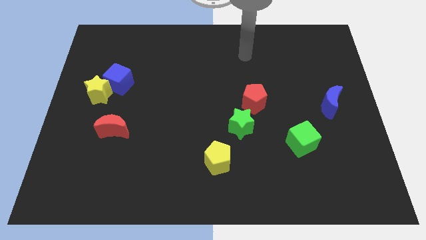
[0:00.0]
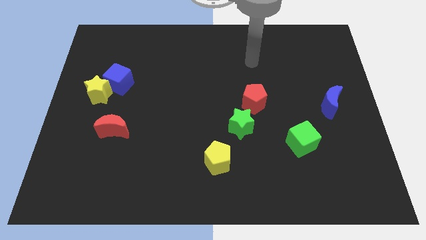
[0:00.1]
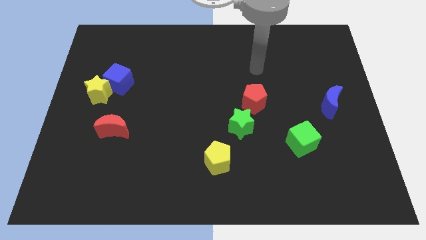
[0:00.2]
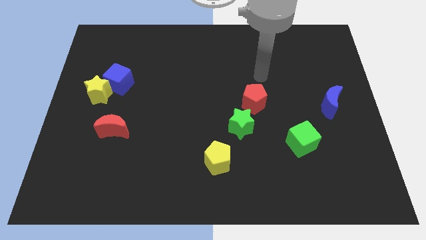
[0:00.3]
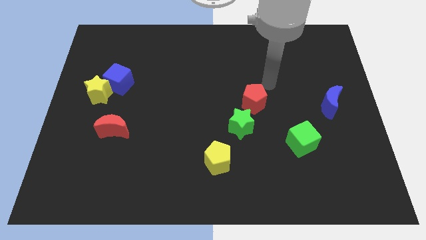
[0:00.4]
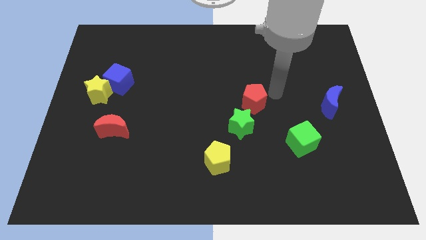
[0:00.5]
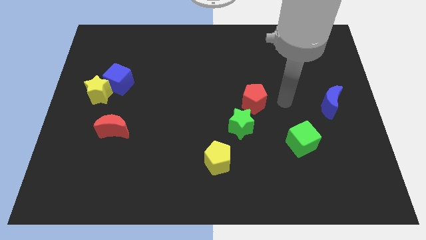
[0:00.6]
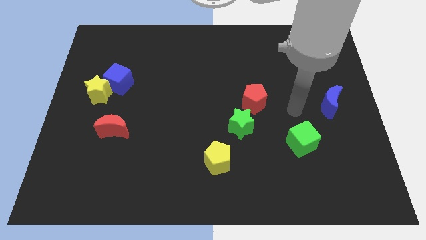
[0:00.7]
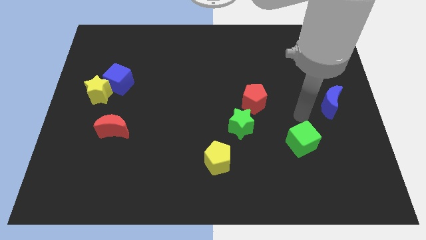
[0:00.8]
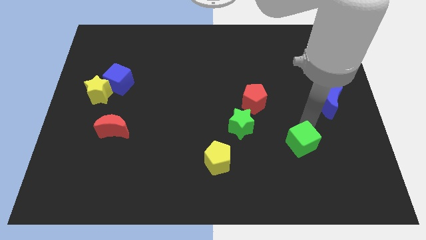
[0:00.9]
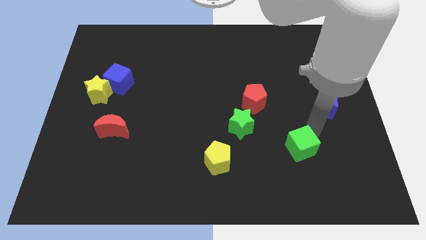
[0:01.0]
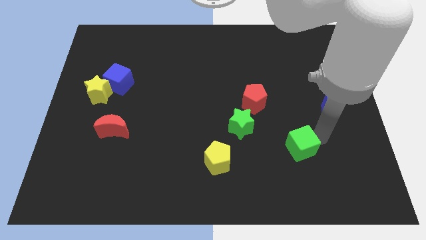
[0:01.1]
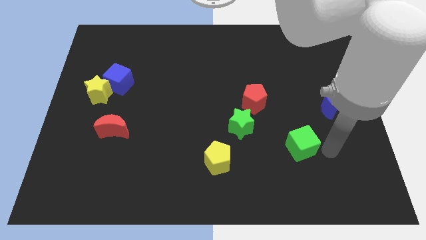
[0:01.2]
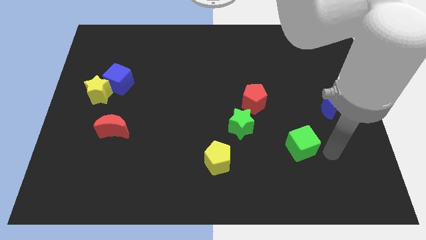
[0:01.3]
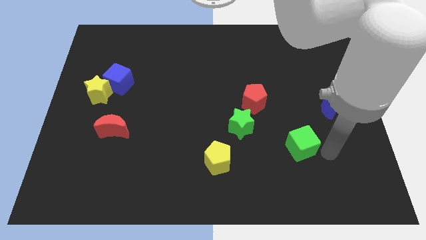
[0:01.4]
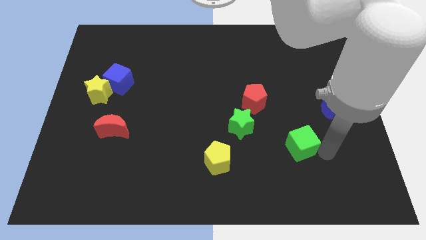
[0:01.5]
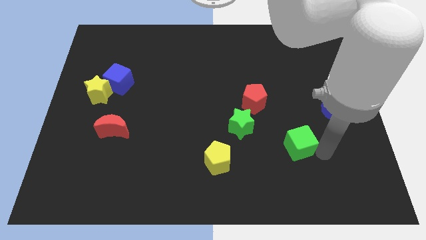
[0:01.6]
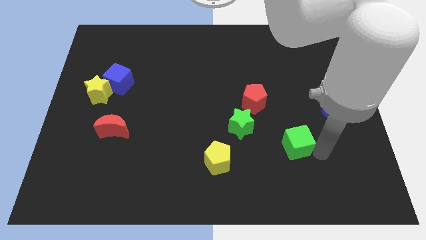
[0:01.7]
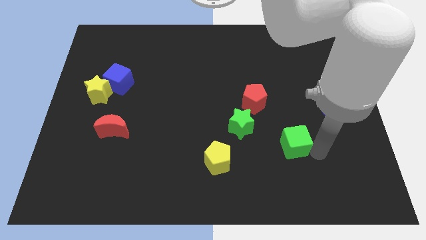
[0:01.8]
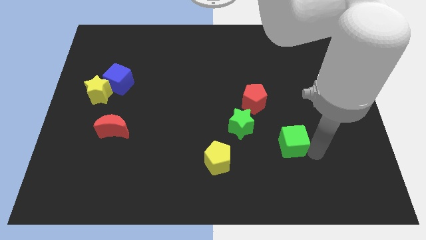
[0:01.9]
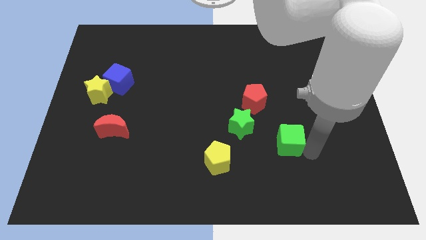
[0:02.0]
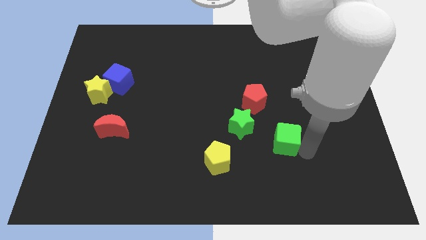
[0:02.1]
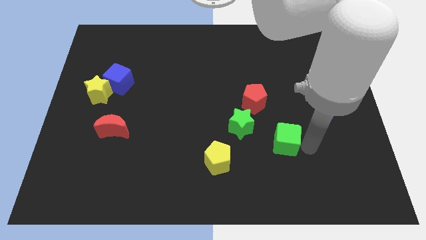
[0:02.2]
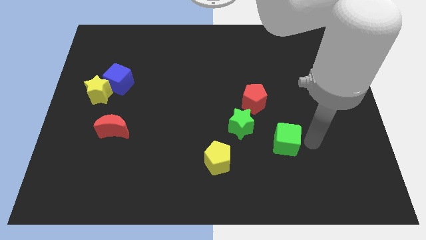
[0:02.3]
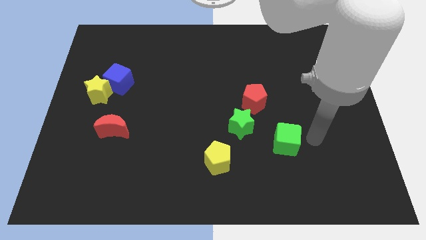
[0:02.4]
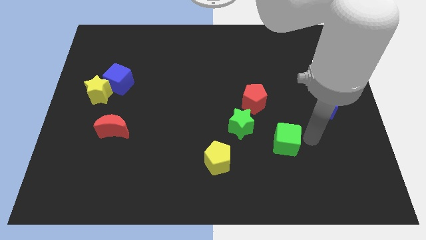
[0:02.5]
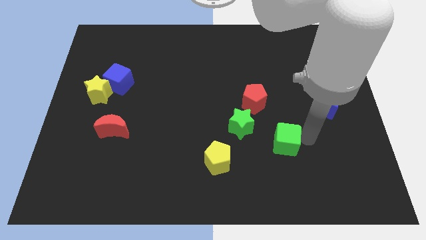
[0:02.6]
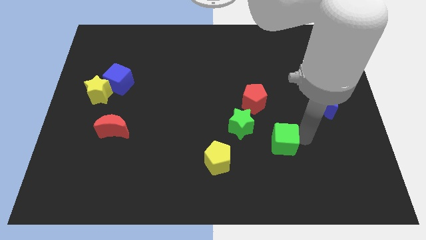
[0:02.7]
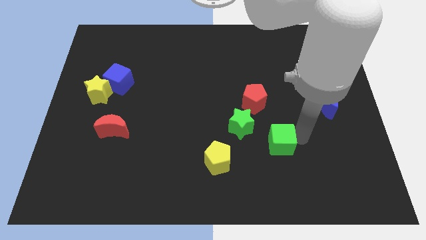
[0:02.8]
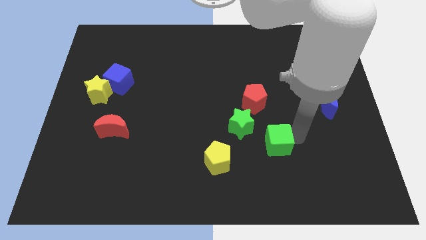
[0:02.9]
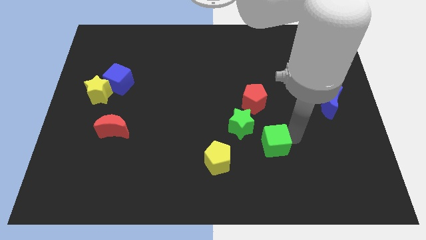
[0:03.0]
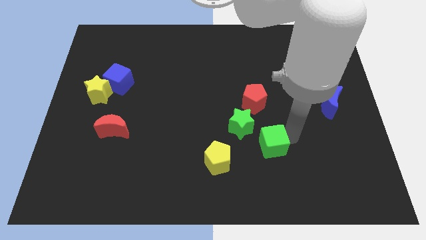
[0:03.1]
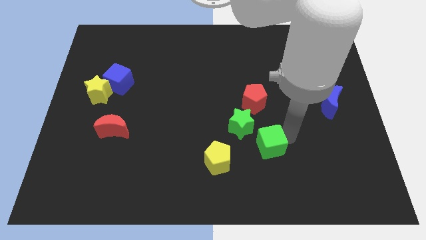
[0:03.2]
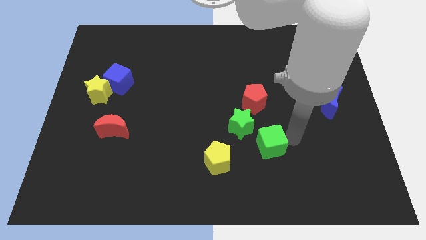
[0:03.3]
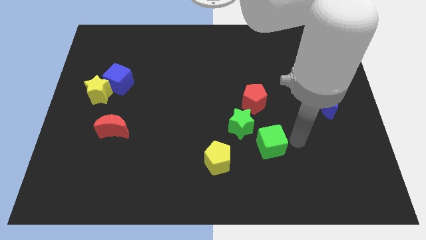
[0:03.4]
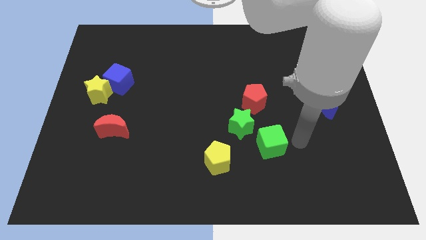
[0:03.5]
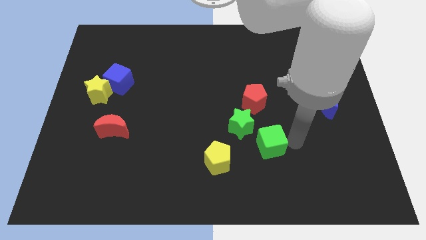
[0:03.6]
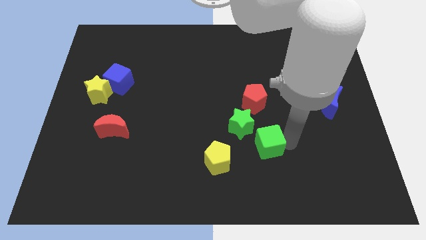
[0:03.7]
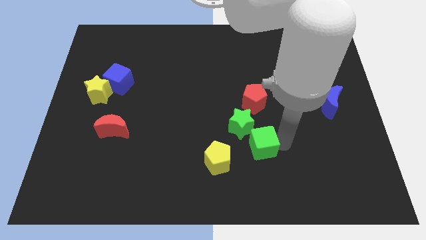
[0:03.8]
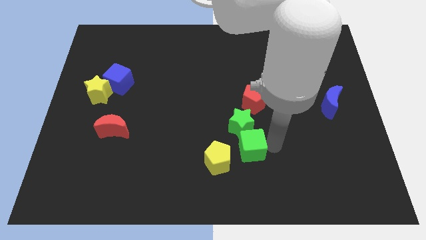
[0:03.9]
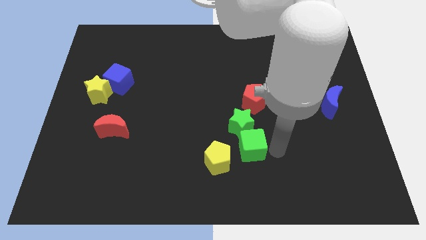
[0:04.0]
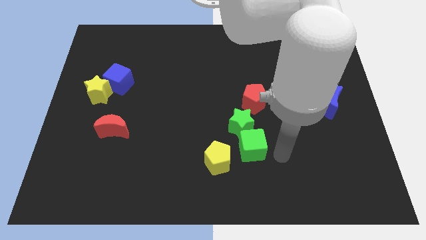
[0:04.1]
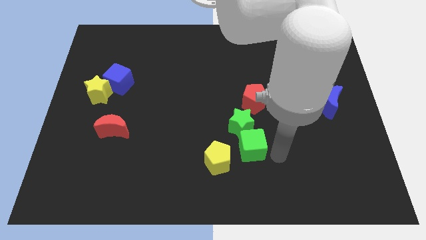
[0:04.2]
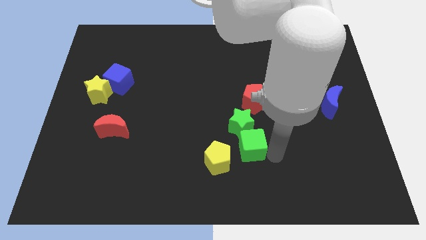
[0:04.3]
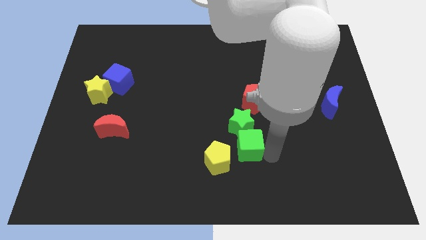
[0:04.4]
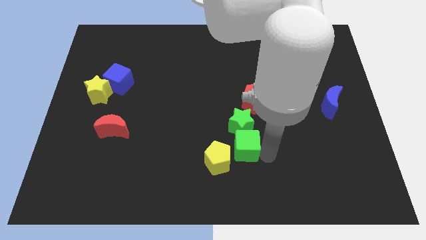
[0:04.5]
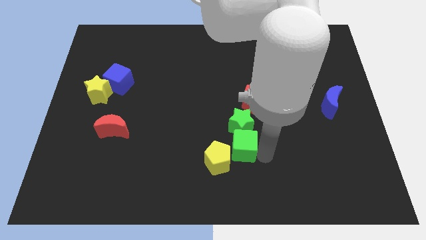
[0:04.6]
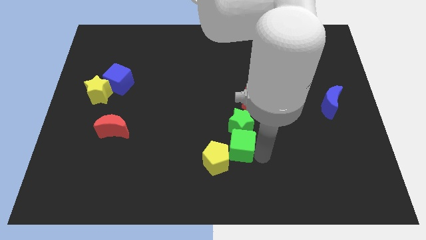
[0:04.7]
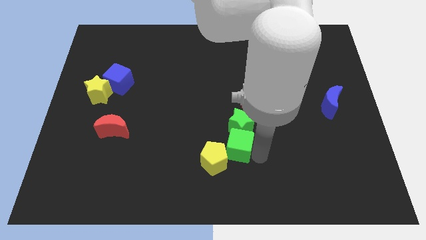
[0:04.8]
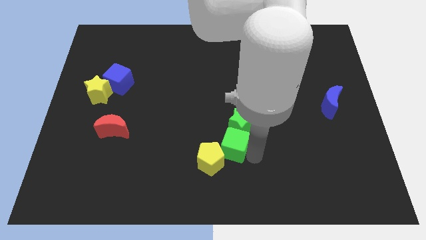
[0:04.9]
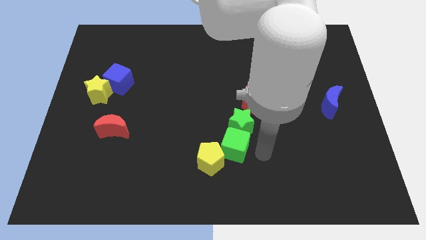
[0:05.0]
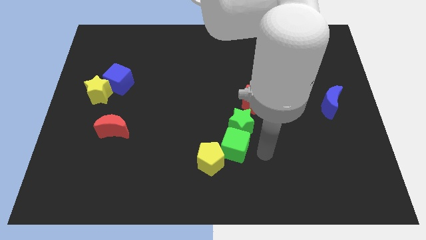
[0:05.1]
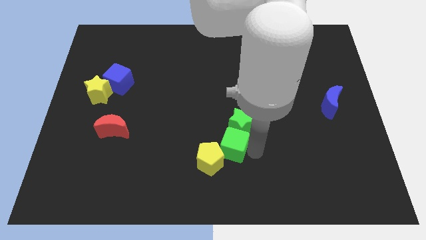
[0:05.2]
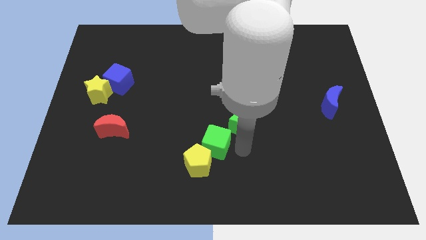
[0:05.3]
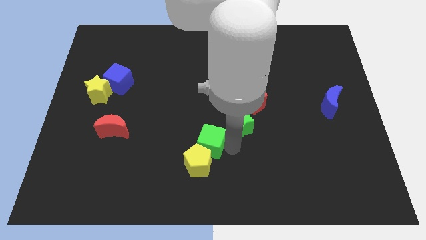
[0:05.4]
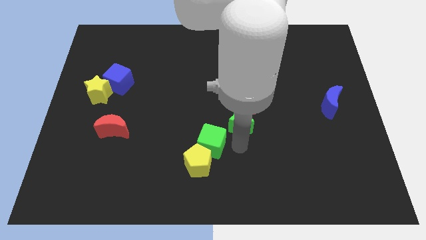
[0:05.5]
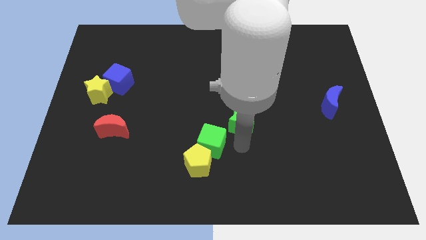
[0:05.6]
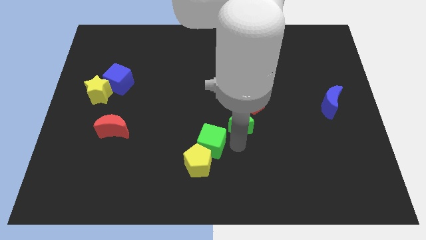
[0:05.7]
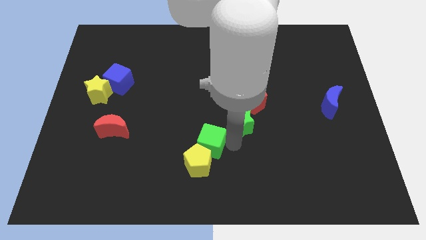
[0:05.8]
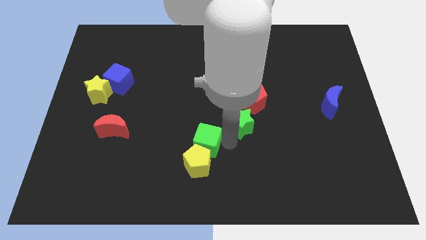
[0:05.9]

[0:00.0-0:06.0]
slide the green cube diagonally up and to the left of the yellow pentagon

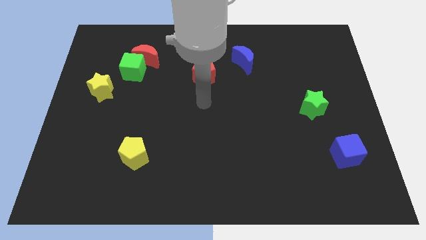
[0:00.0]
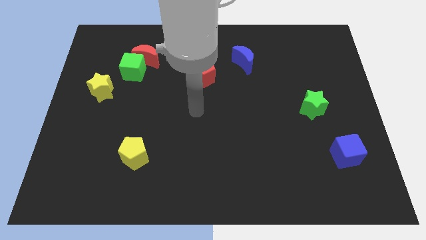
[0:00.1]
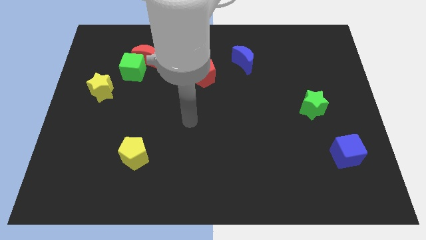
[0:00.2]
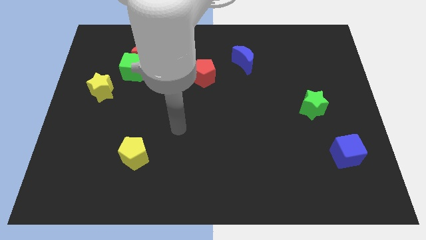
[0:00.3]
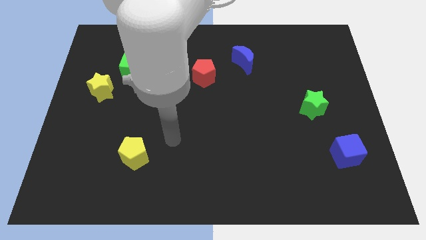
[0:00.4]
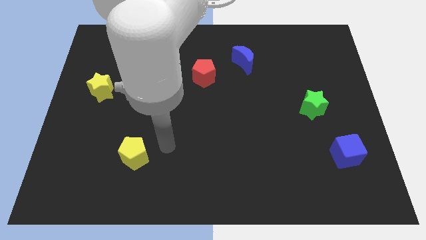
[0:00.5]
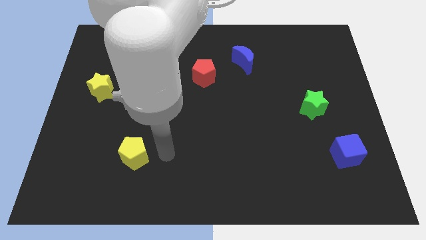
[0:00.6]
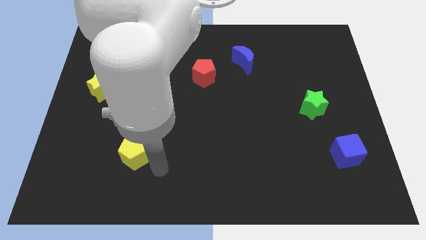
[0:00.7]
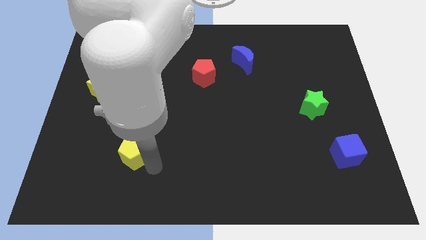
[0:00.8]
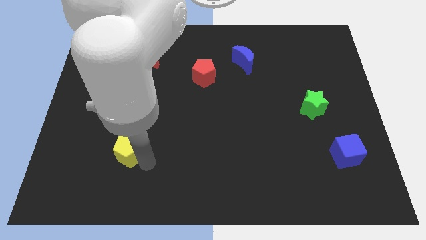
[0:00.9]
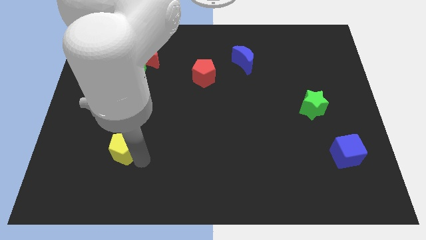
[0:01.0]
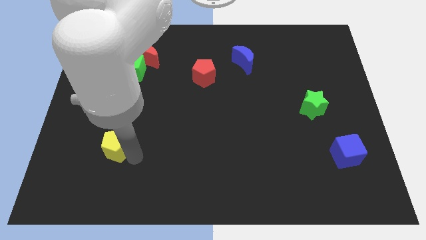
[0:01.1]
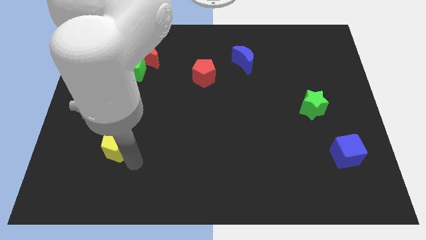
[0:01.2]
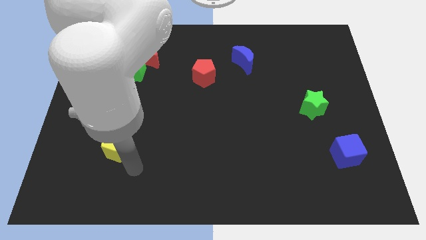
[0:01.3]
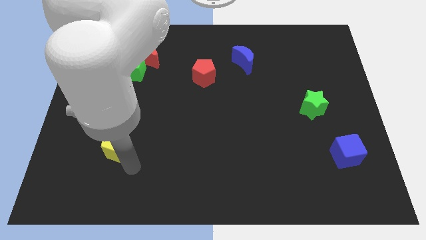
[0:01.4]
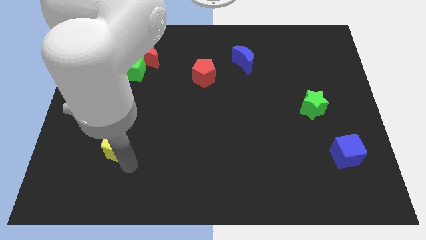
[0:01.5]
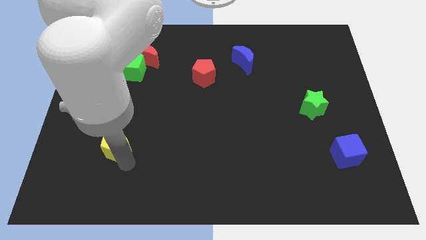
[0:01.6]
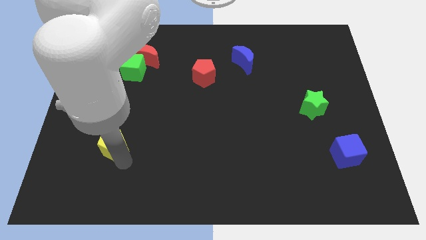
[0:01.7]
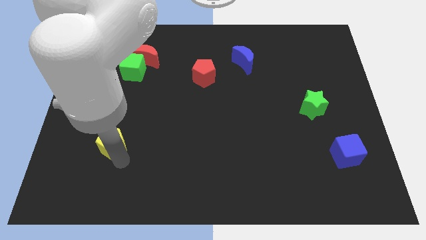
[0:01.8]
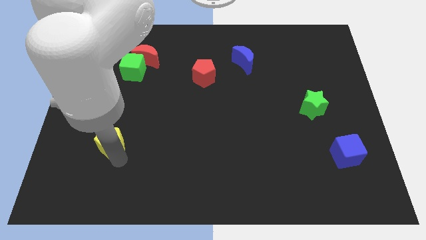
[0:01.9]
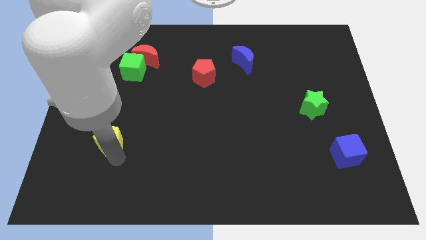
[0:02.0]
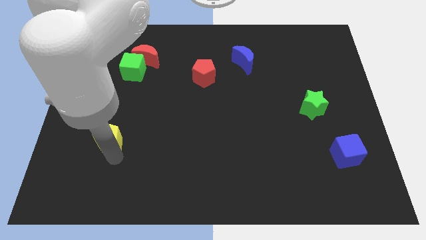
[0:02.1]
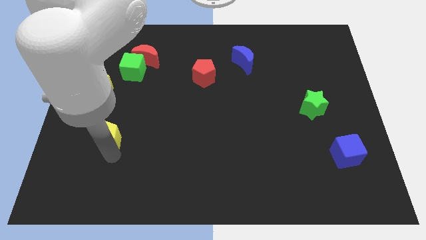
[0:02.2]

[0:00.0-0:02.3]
move the yellow pentagon below the yellow star
